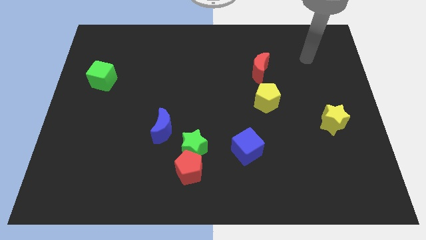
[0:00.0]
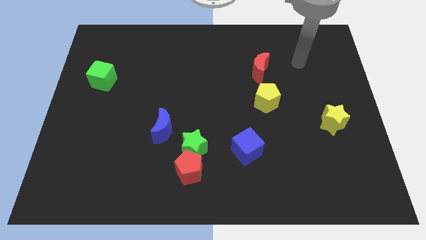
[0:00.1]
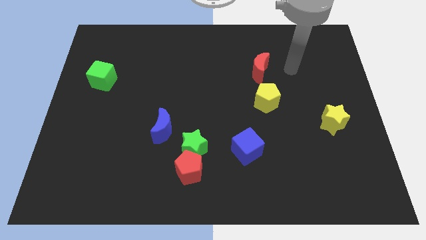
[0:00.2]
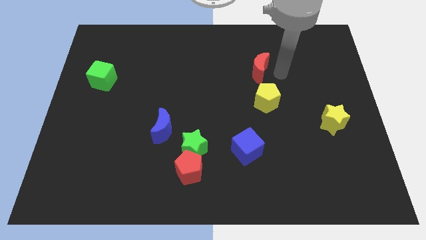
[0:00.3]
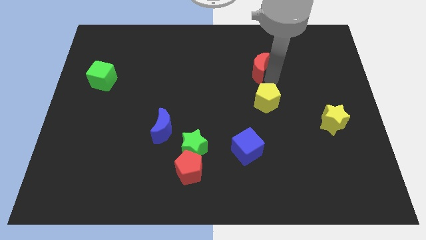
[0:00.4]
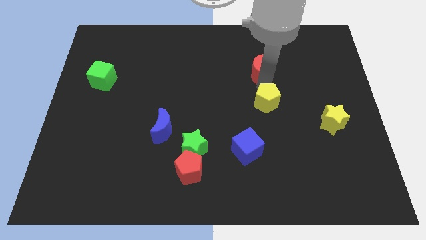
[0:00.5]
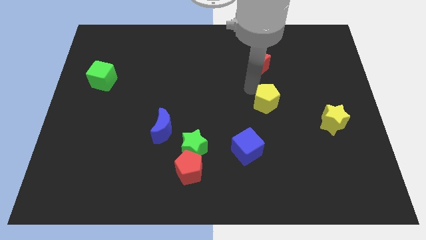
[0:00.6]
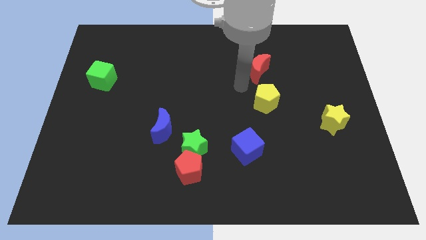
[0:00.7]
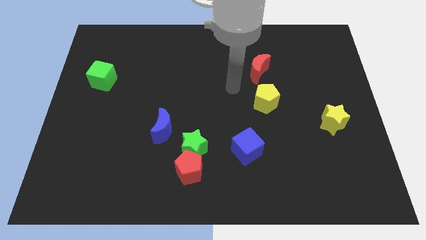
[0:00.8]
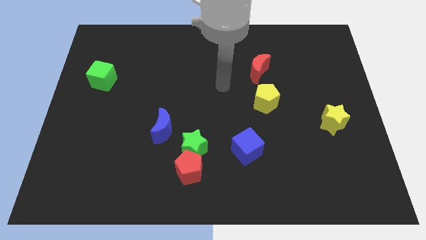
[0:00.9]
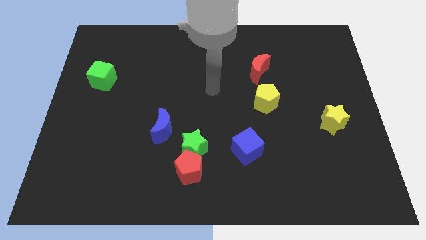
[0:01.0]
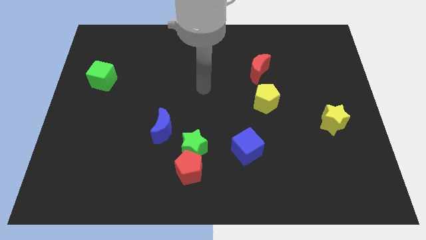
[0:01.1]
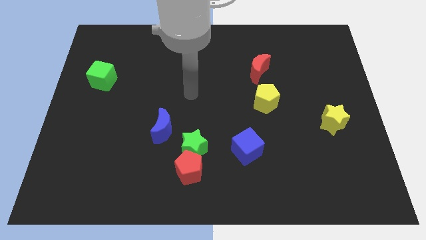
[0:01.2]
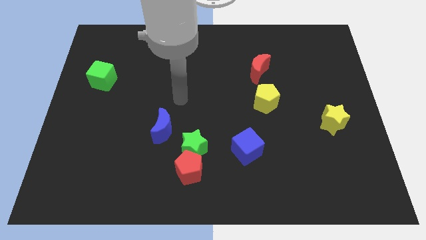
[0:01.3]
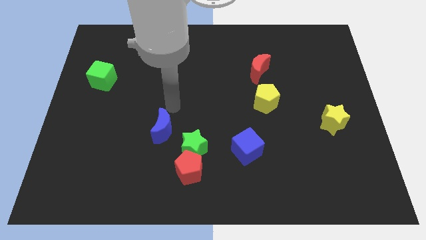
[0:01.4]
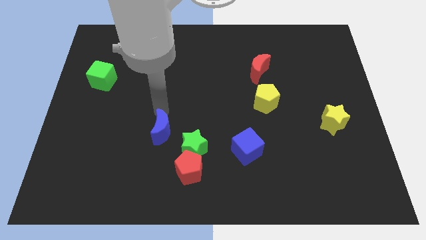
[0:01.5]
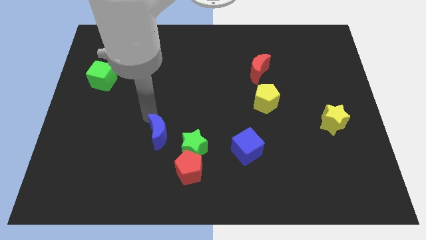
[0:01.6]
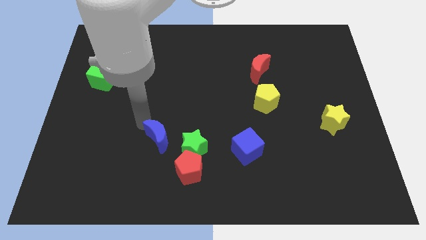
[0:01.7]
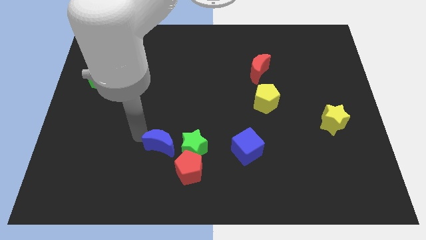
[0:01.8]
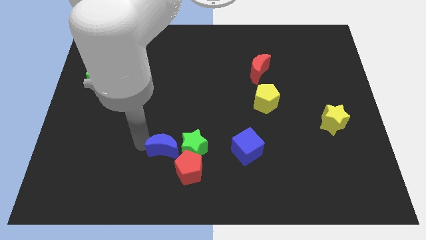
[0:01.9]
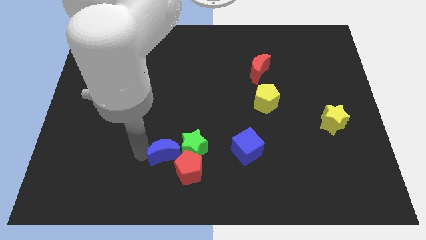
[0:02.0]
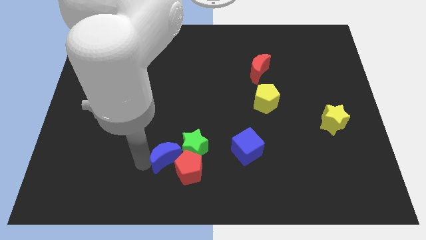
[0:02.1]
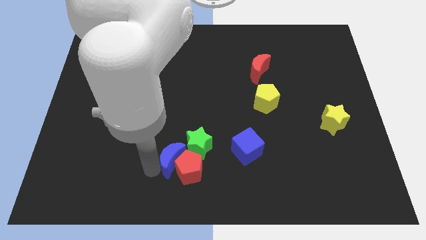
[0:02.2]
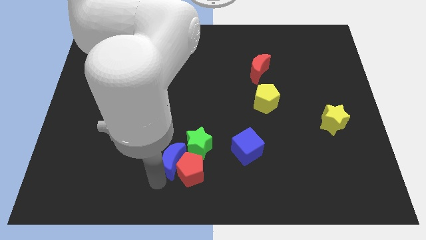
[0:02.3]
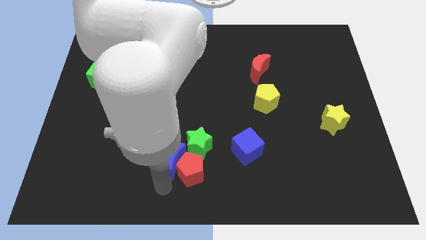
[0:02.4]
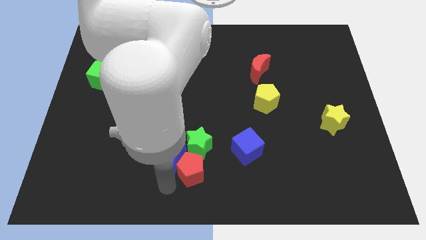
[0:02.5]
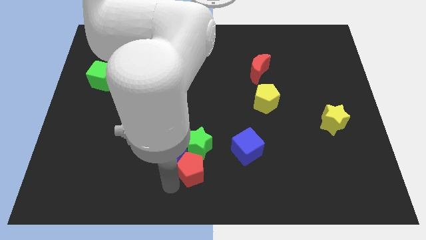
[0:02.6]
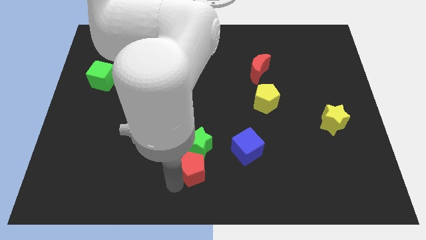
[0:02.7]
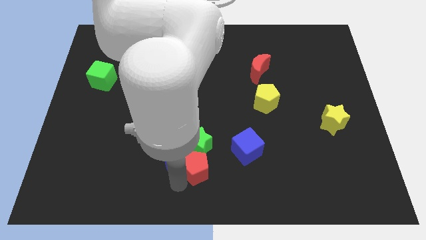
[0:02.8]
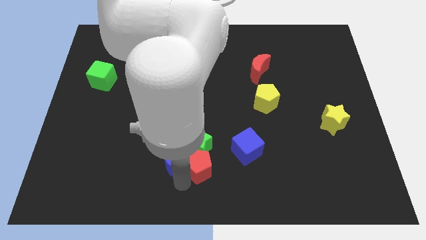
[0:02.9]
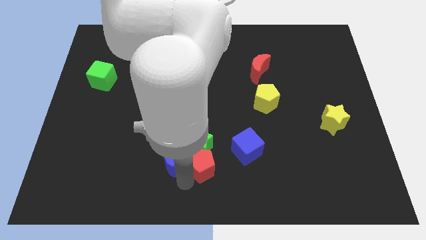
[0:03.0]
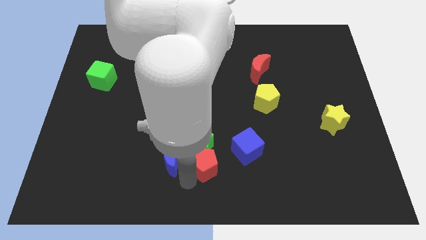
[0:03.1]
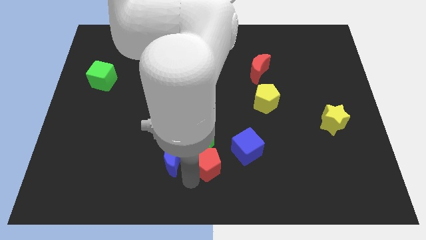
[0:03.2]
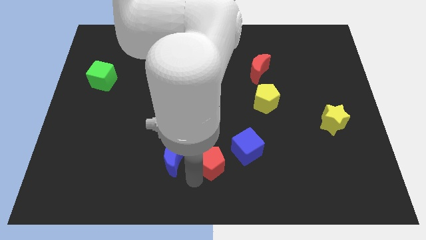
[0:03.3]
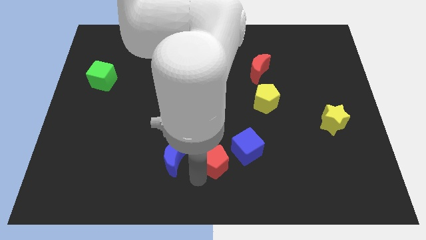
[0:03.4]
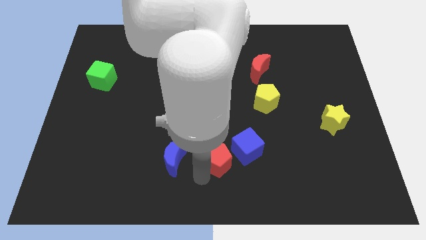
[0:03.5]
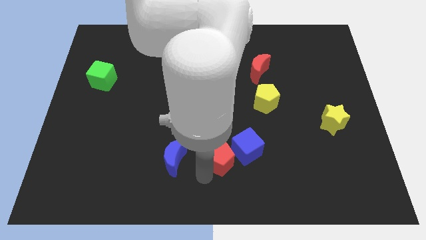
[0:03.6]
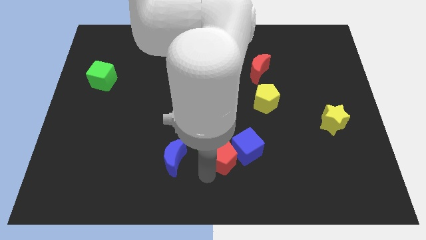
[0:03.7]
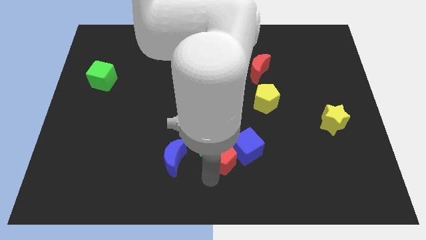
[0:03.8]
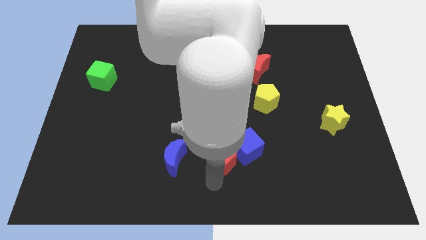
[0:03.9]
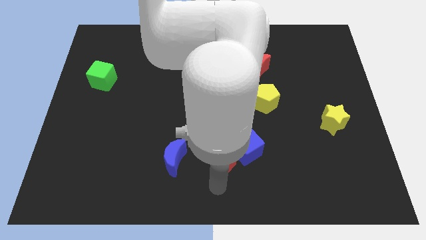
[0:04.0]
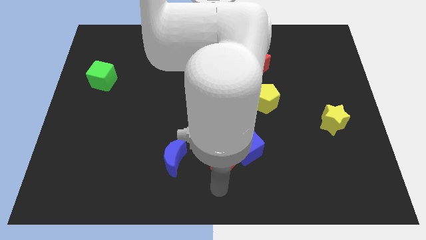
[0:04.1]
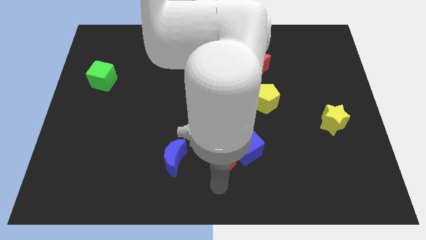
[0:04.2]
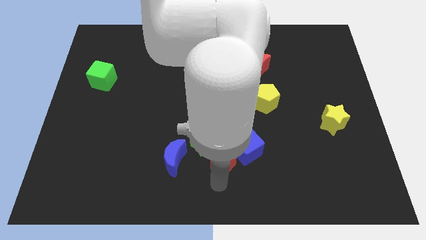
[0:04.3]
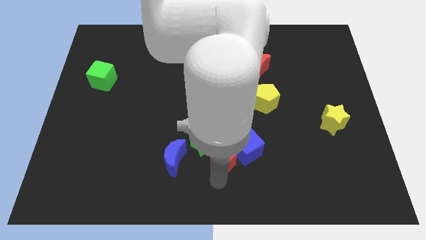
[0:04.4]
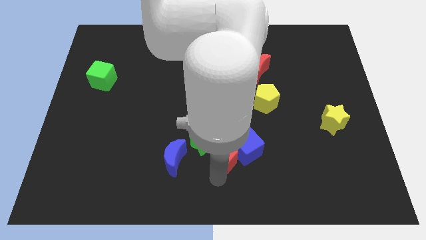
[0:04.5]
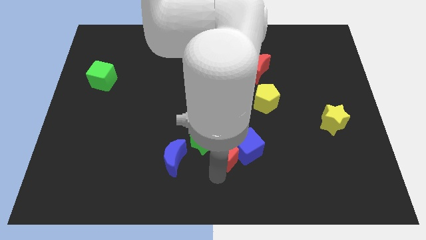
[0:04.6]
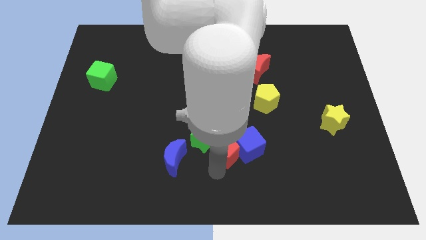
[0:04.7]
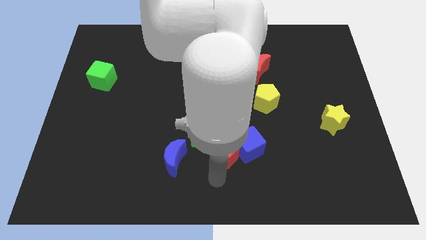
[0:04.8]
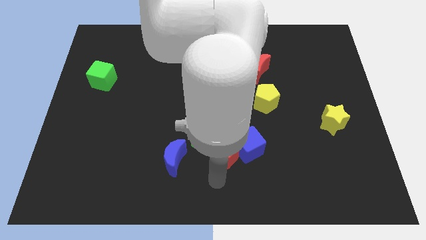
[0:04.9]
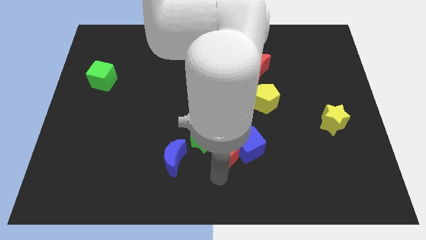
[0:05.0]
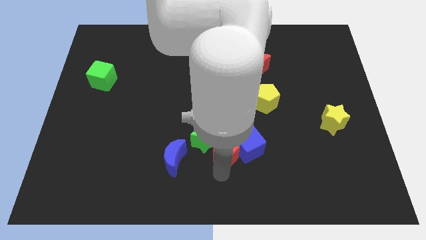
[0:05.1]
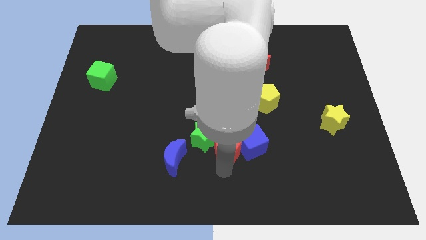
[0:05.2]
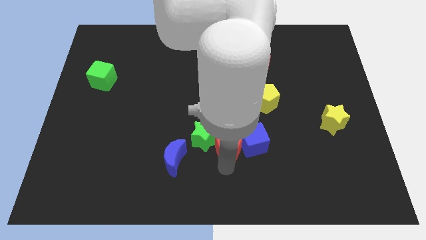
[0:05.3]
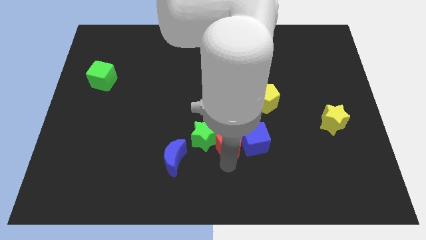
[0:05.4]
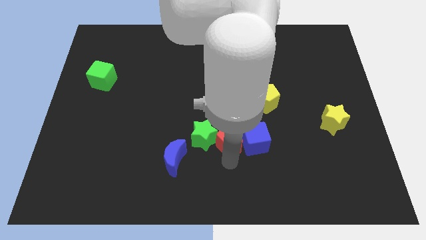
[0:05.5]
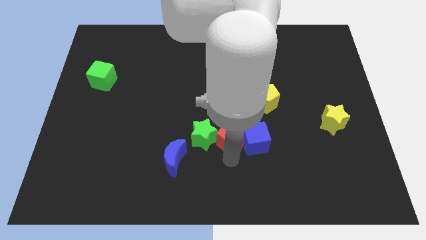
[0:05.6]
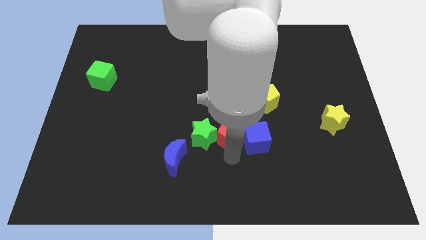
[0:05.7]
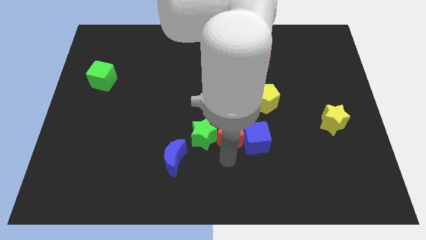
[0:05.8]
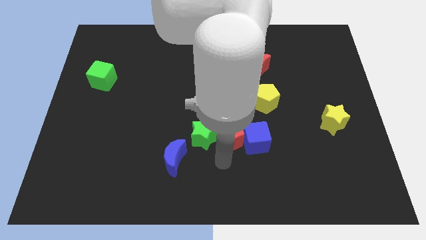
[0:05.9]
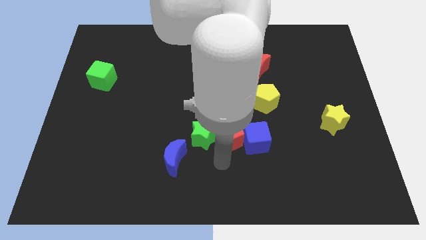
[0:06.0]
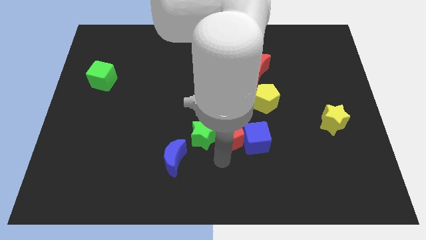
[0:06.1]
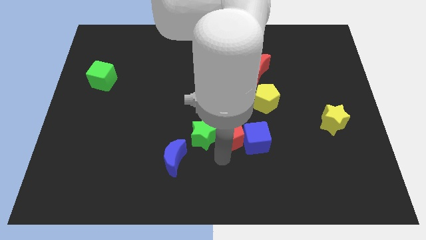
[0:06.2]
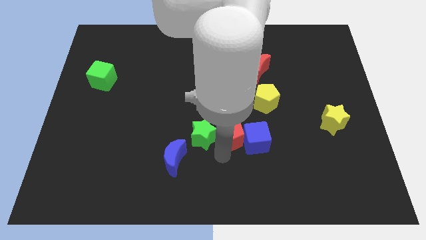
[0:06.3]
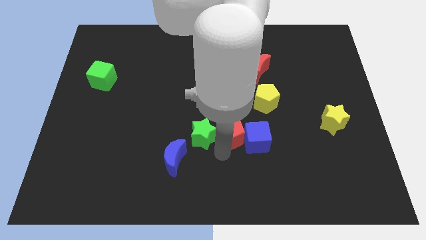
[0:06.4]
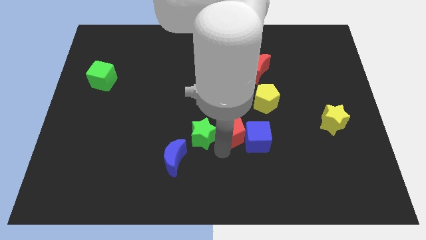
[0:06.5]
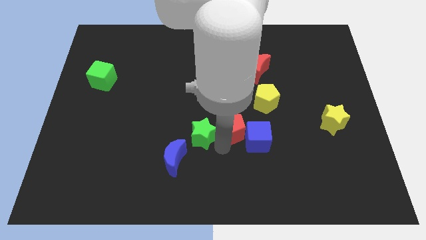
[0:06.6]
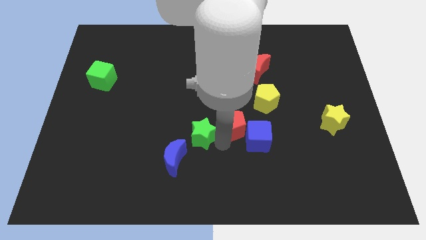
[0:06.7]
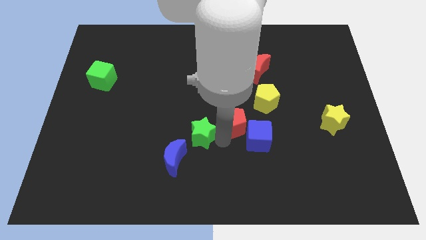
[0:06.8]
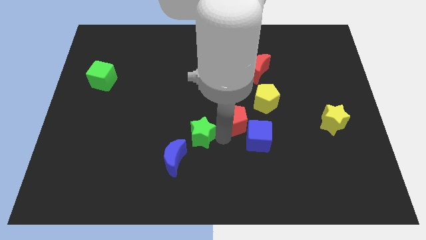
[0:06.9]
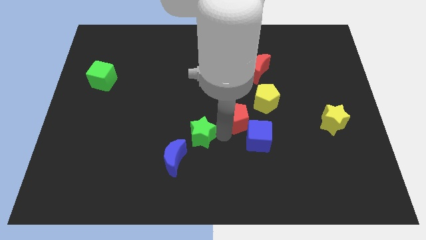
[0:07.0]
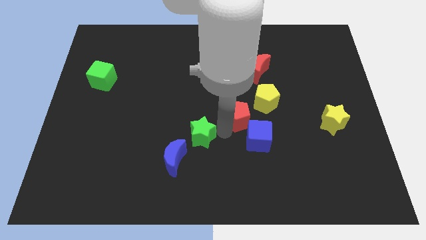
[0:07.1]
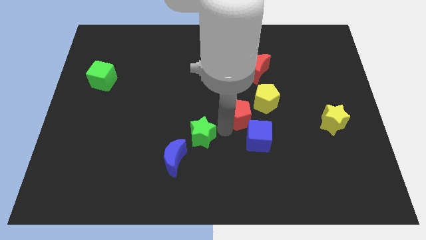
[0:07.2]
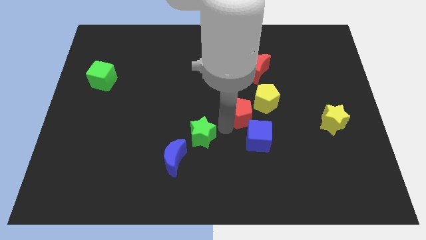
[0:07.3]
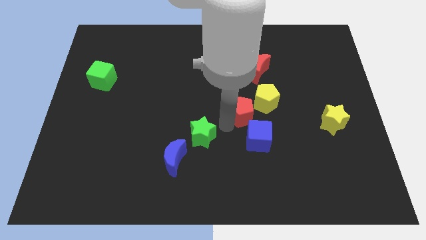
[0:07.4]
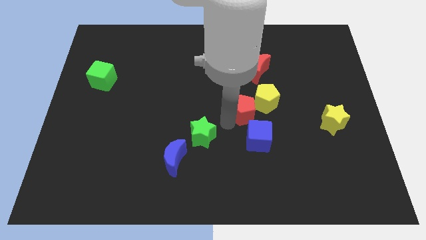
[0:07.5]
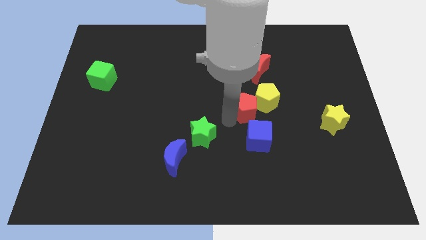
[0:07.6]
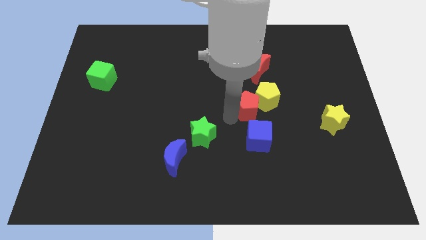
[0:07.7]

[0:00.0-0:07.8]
move the red pentagon diagonally upwards and to the right

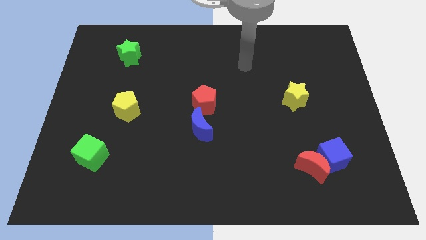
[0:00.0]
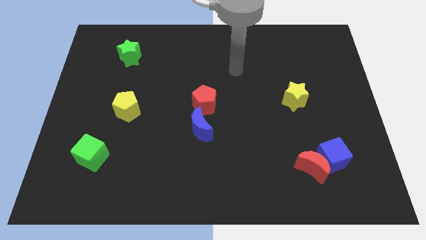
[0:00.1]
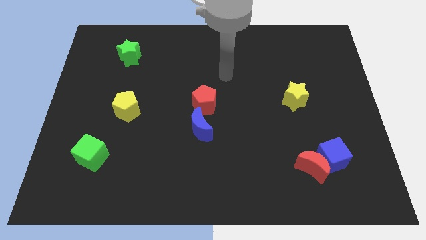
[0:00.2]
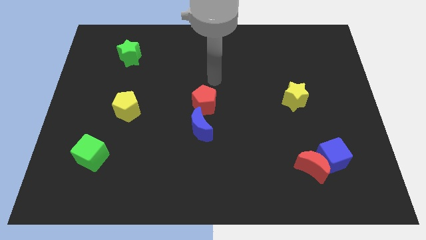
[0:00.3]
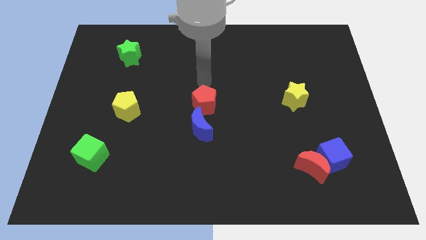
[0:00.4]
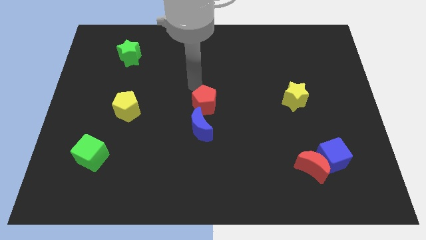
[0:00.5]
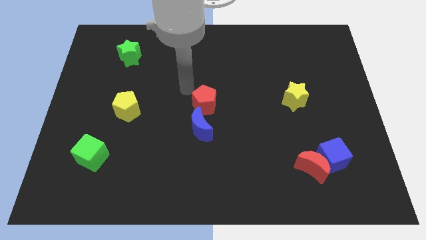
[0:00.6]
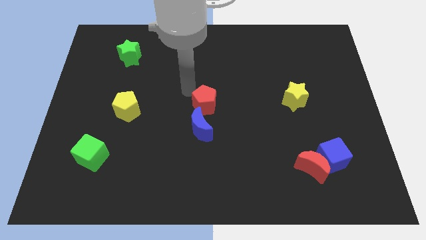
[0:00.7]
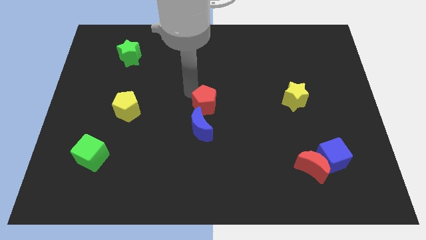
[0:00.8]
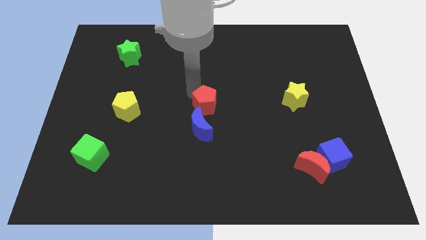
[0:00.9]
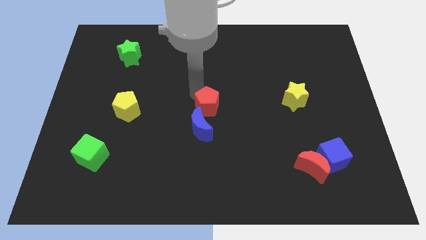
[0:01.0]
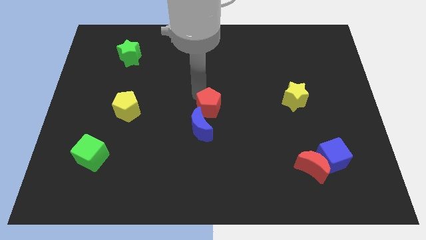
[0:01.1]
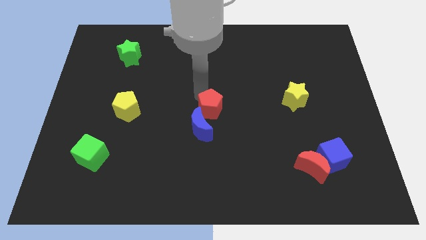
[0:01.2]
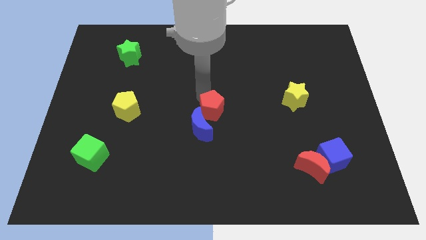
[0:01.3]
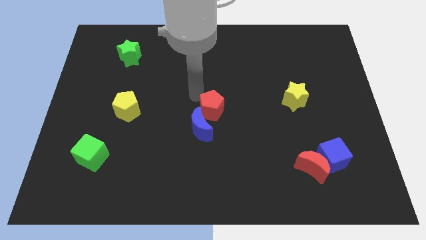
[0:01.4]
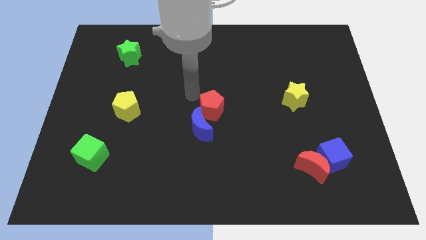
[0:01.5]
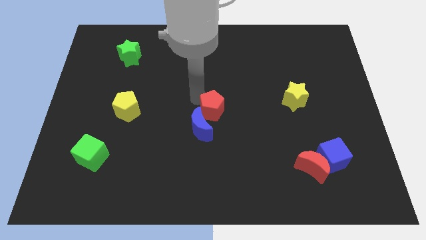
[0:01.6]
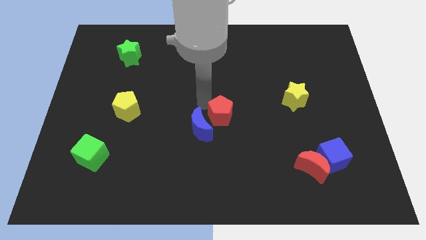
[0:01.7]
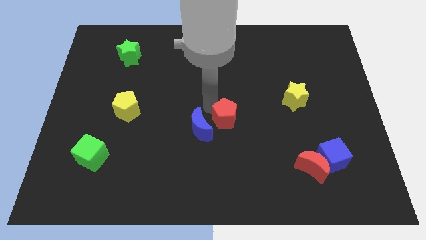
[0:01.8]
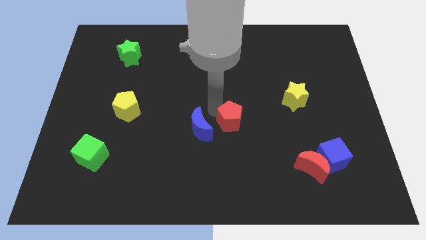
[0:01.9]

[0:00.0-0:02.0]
slightly slide the red pentagon down and right diagonally
